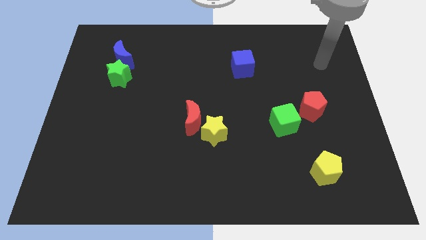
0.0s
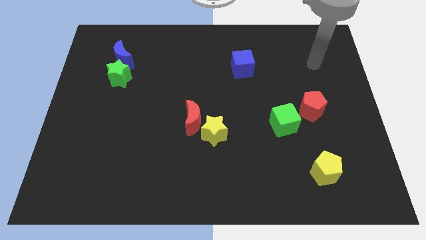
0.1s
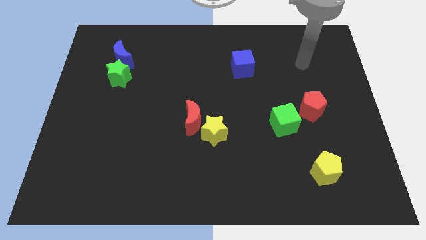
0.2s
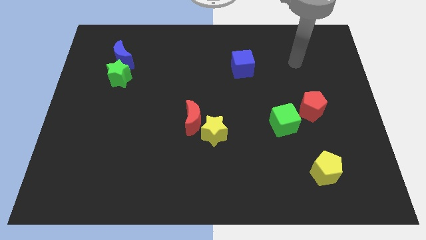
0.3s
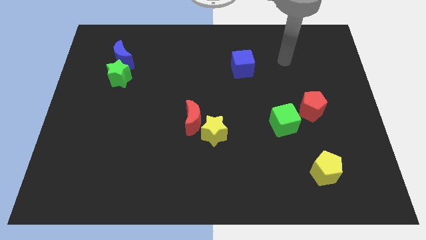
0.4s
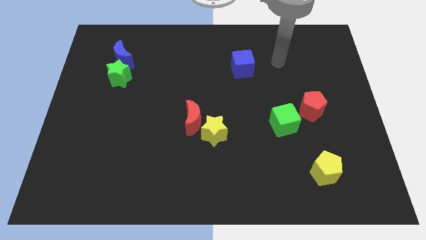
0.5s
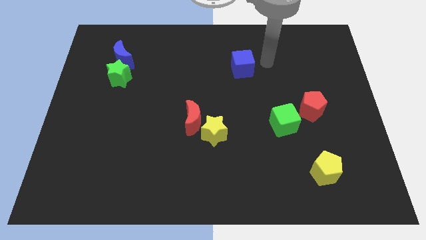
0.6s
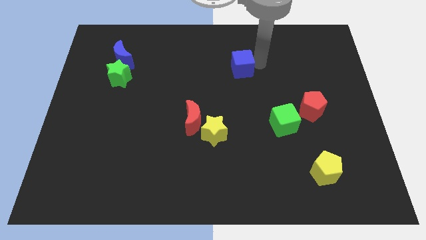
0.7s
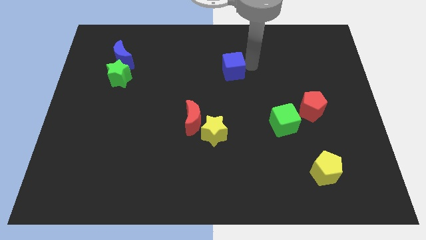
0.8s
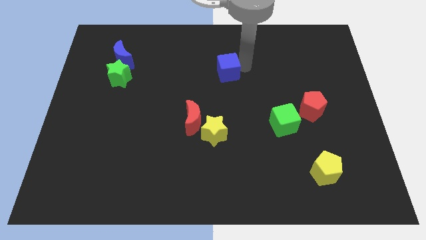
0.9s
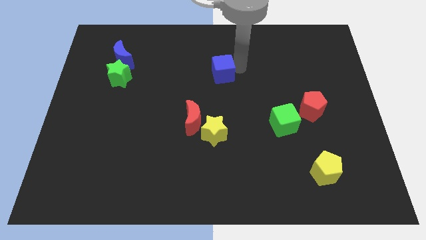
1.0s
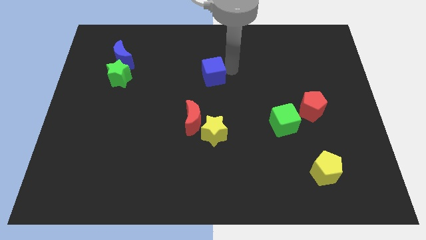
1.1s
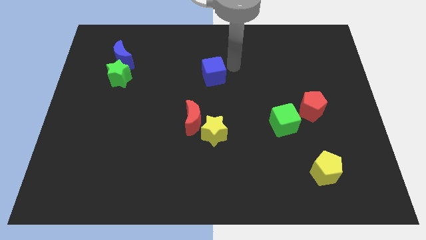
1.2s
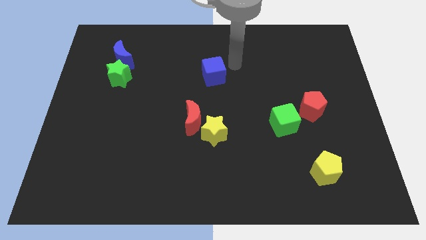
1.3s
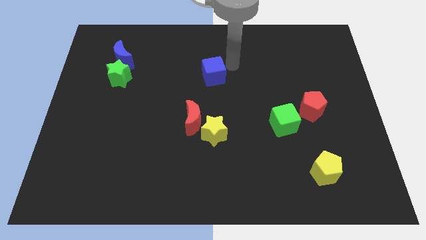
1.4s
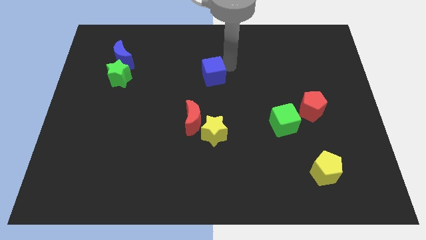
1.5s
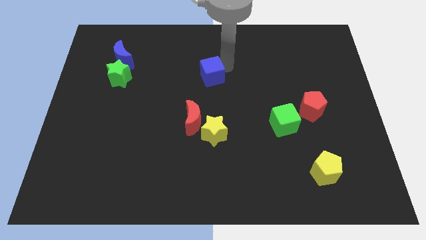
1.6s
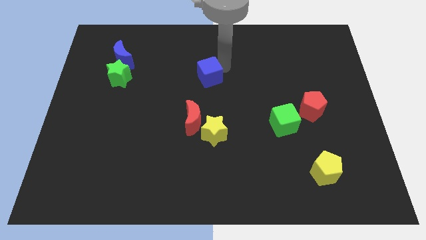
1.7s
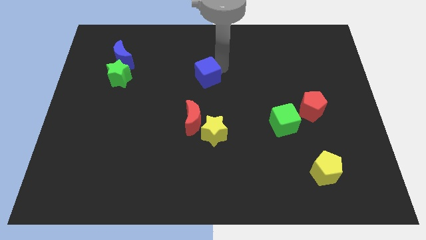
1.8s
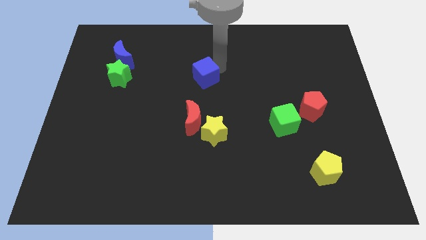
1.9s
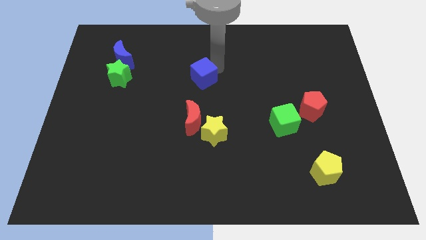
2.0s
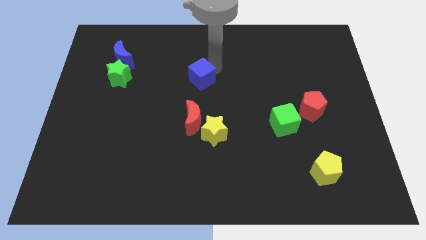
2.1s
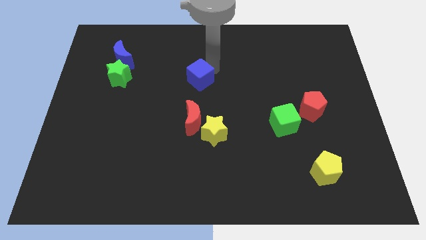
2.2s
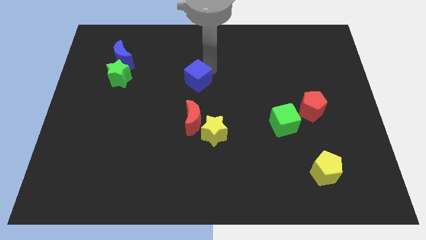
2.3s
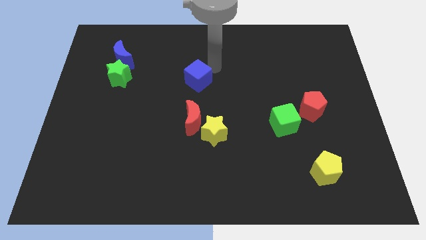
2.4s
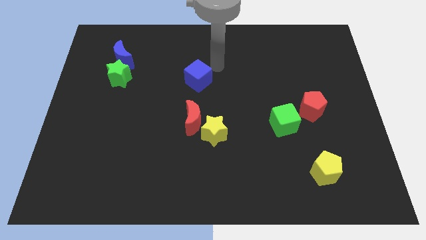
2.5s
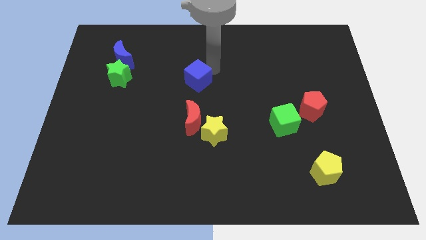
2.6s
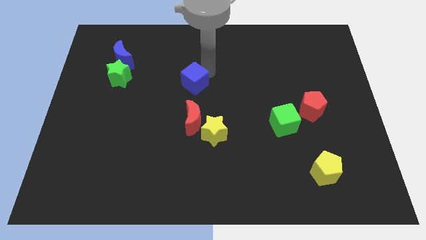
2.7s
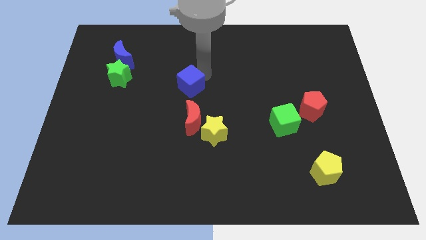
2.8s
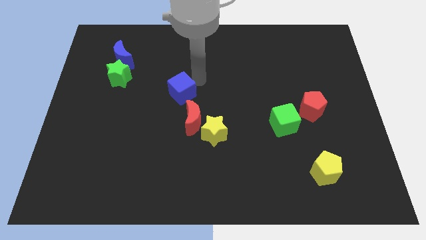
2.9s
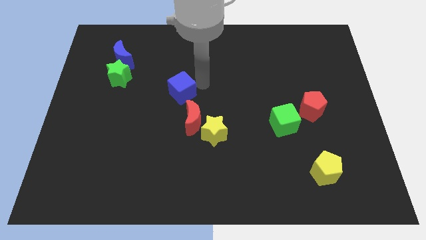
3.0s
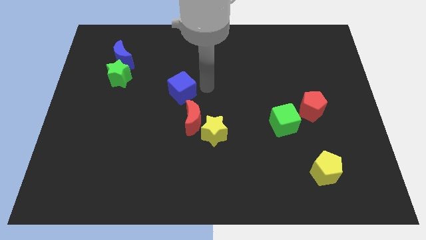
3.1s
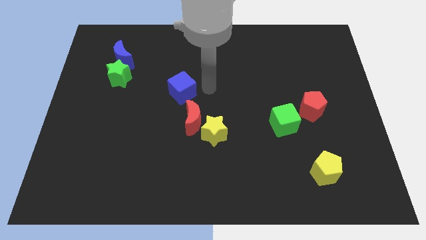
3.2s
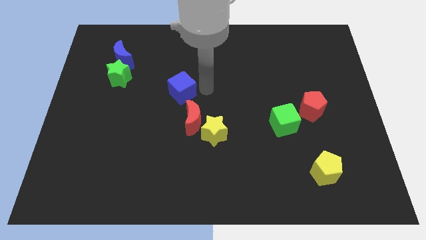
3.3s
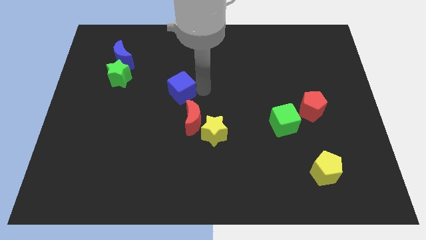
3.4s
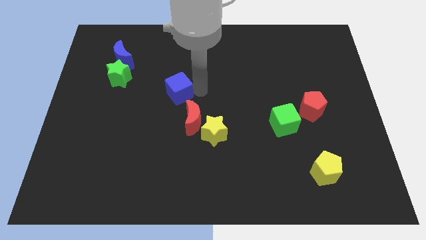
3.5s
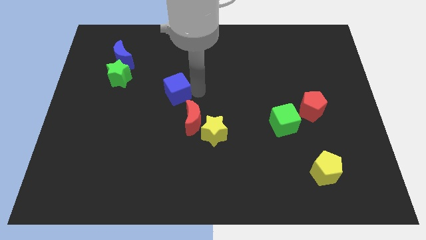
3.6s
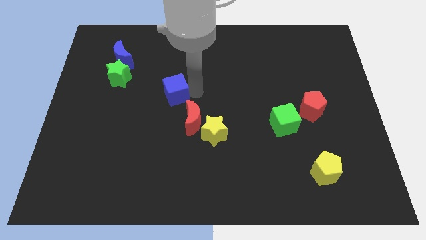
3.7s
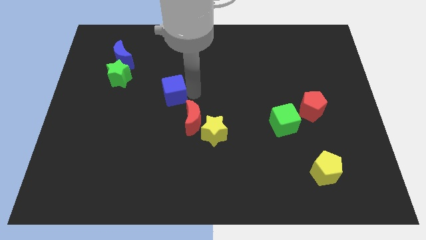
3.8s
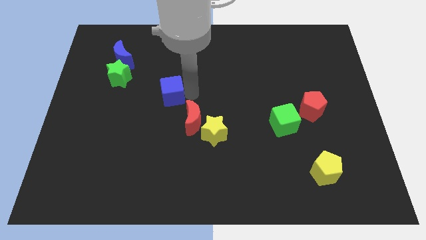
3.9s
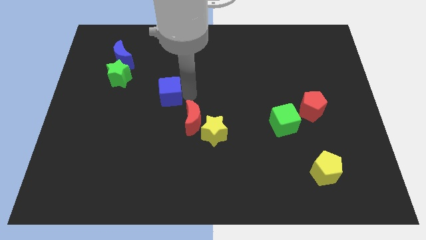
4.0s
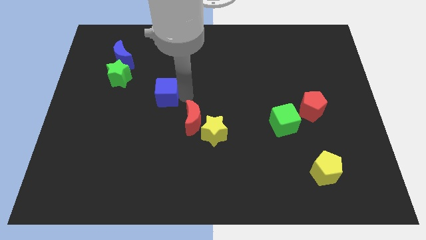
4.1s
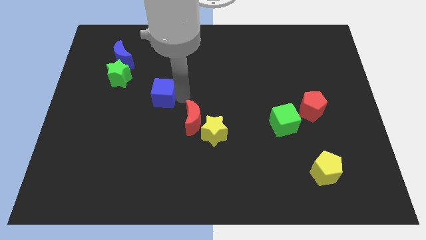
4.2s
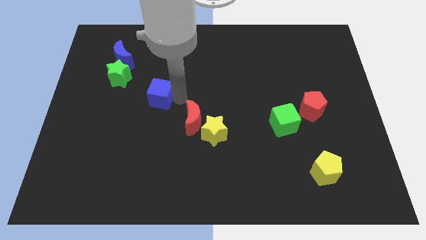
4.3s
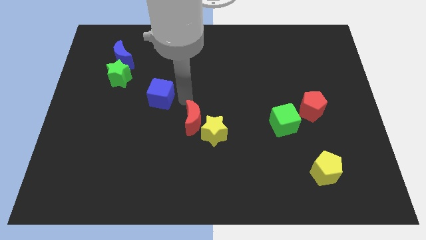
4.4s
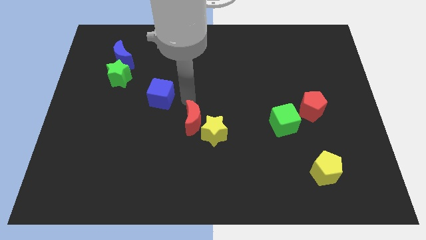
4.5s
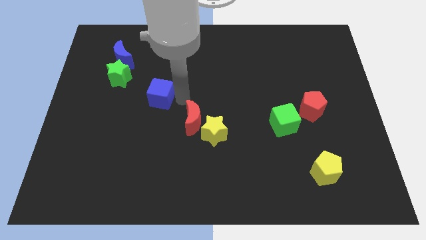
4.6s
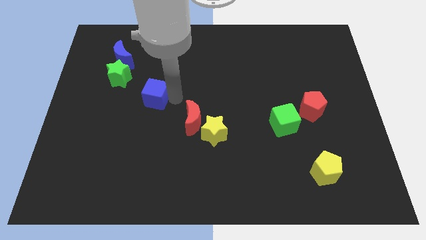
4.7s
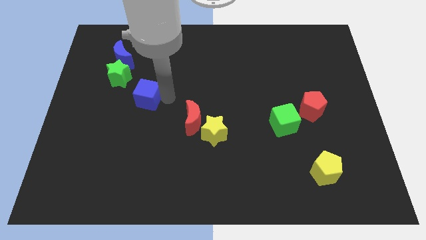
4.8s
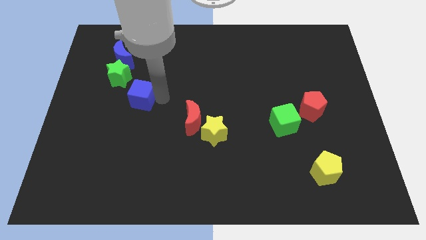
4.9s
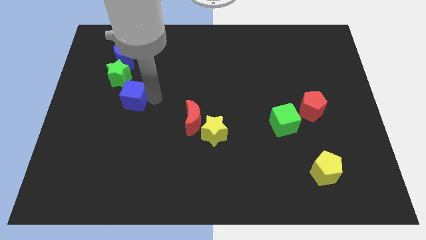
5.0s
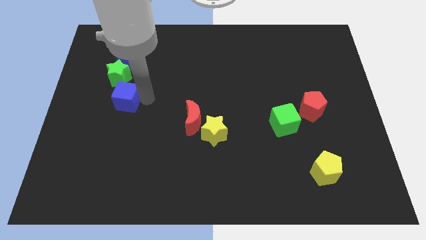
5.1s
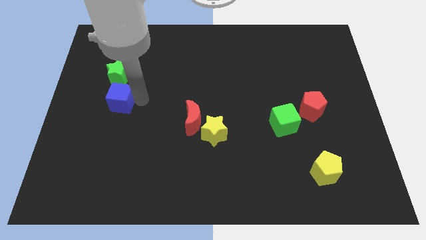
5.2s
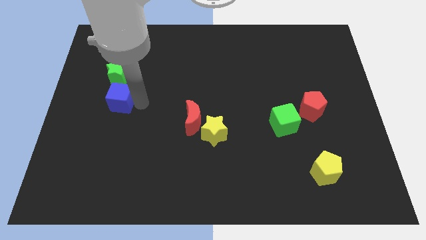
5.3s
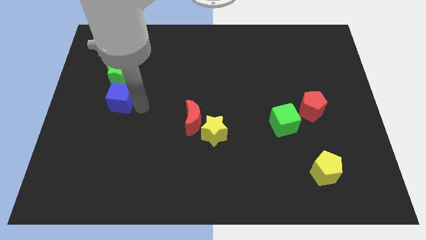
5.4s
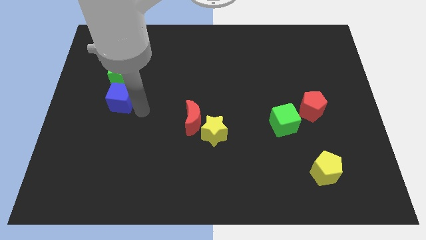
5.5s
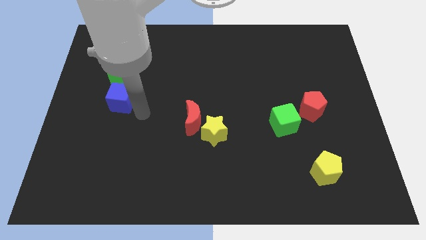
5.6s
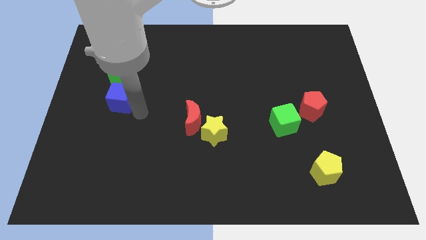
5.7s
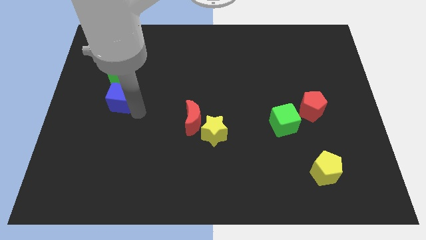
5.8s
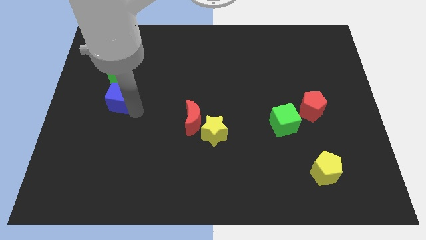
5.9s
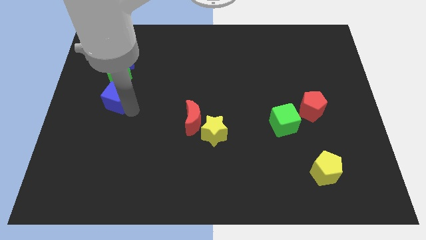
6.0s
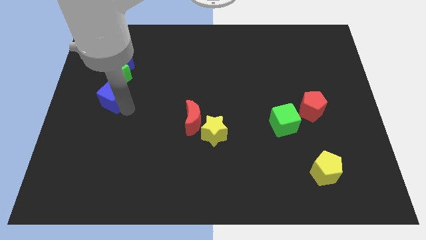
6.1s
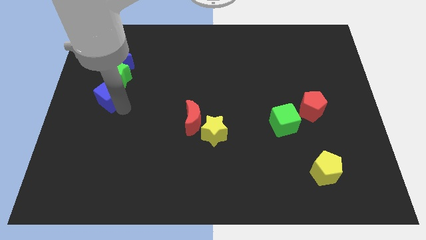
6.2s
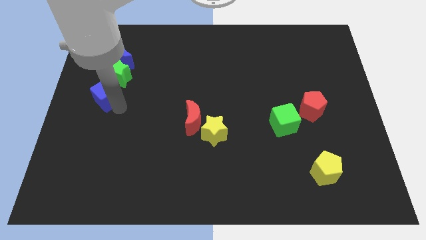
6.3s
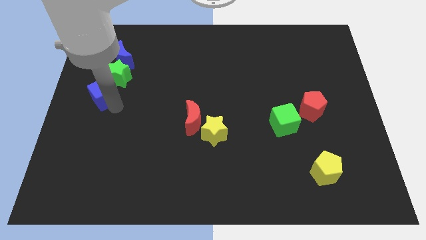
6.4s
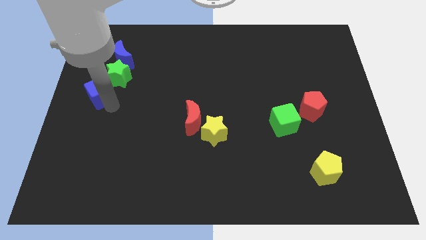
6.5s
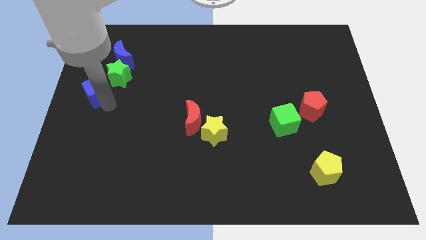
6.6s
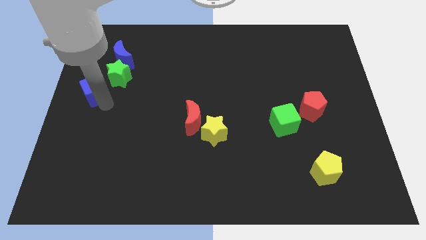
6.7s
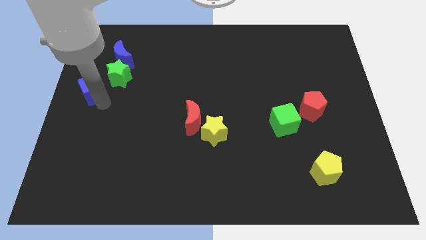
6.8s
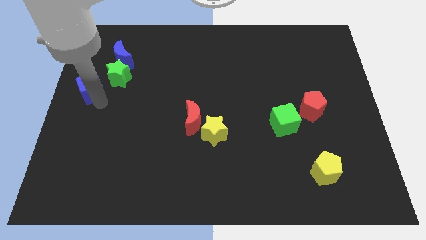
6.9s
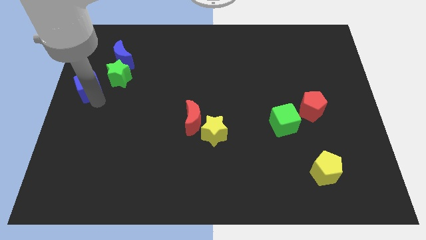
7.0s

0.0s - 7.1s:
put the blue cube to the bottom left side of the blue moon

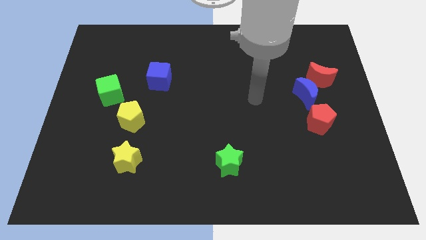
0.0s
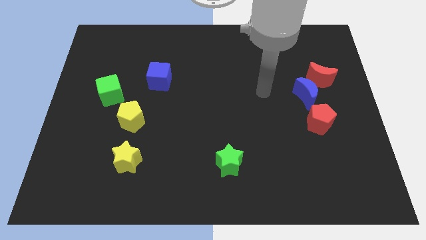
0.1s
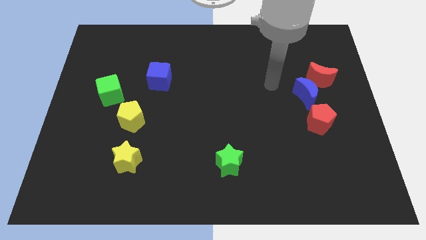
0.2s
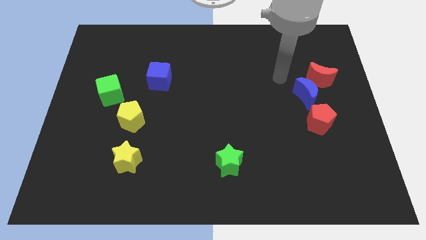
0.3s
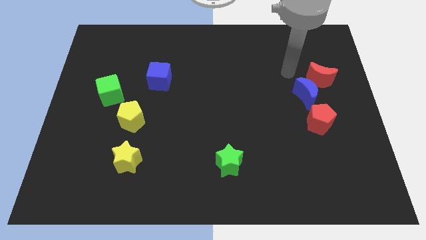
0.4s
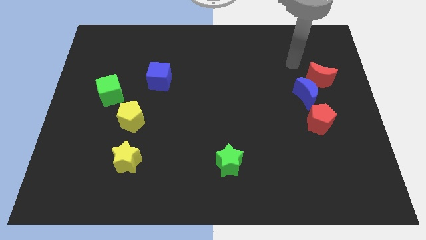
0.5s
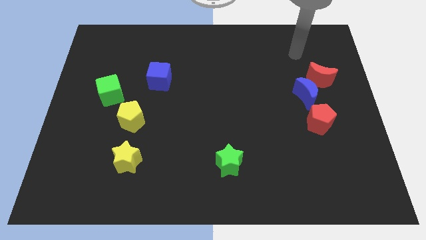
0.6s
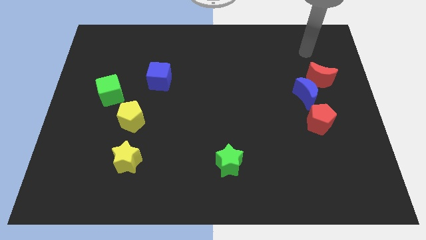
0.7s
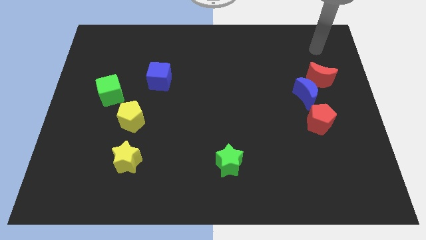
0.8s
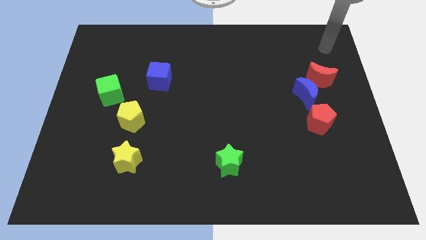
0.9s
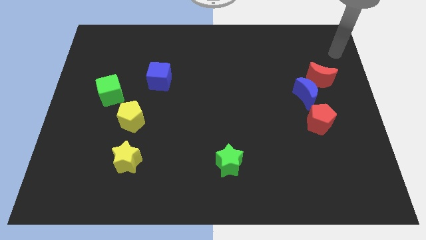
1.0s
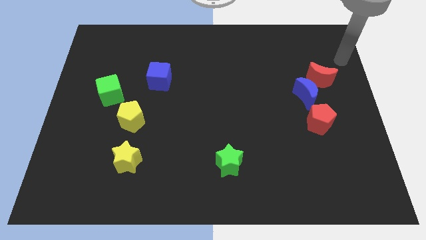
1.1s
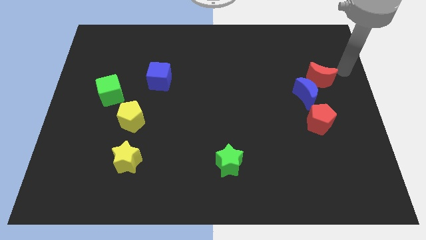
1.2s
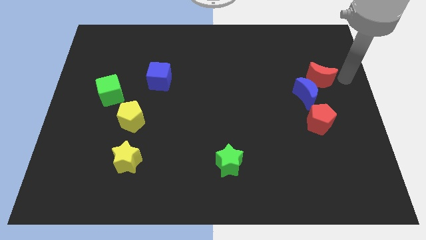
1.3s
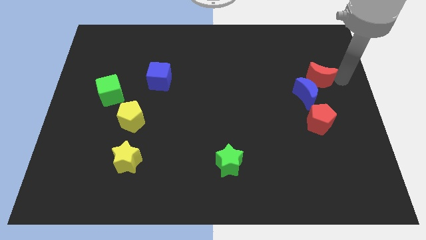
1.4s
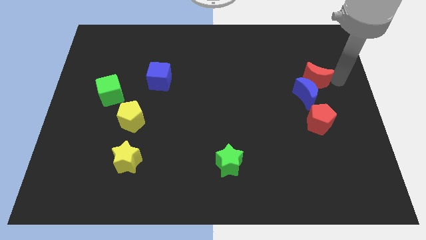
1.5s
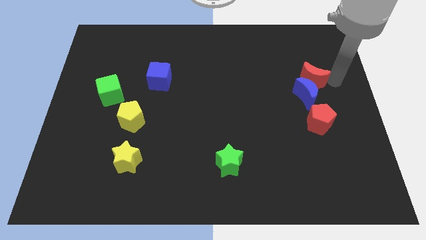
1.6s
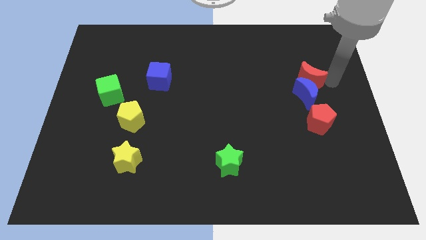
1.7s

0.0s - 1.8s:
slide the red moon diagonally up and to the left of the blue moon
